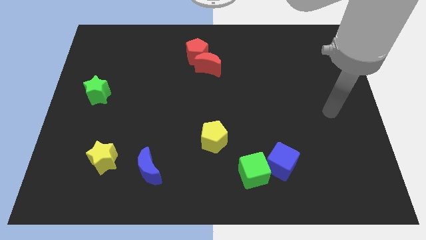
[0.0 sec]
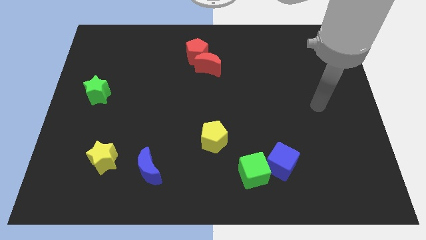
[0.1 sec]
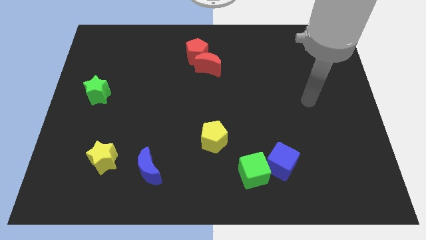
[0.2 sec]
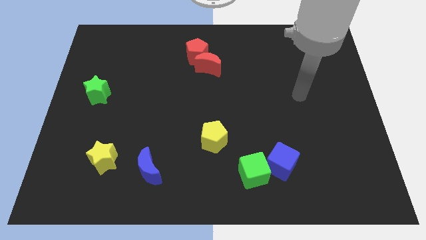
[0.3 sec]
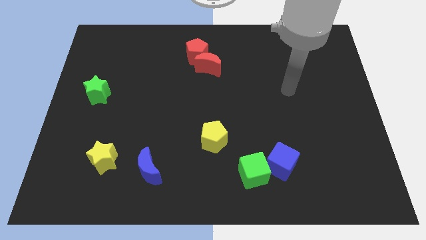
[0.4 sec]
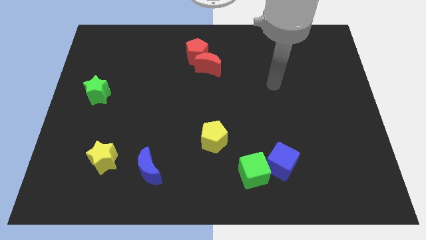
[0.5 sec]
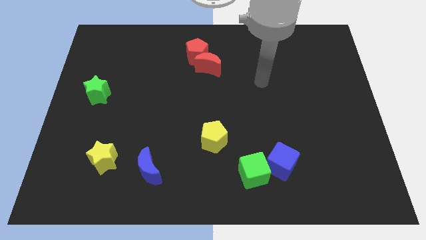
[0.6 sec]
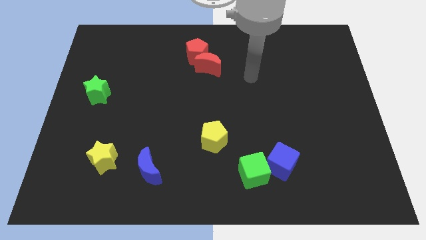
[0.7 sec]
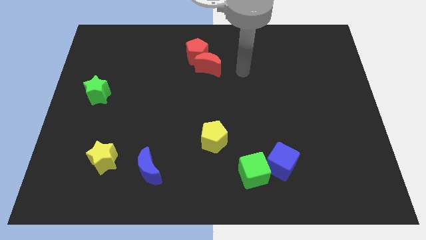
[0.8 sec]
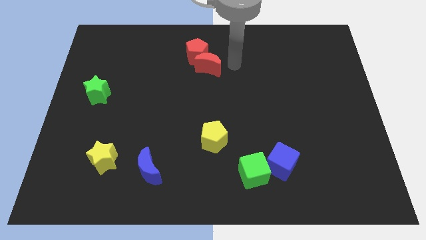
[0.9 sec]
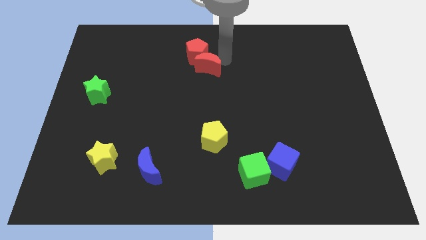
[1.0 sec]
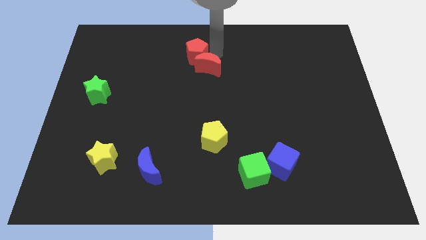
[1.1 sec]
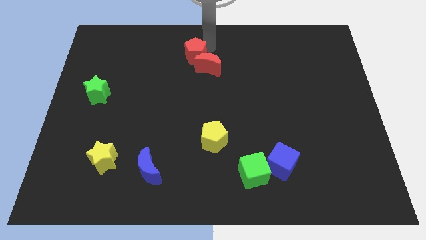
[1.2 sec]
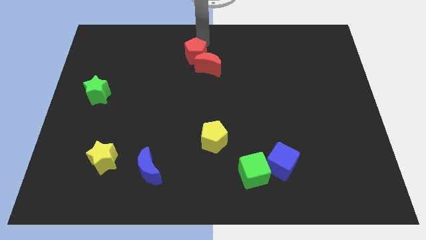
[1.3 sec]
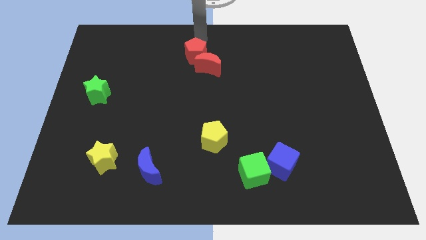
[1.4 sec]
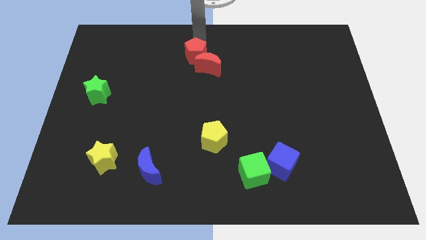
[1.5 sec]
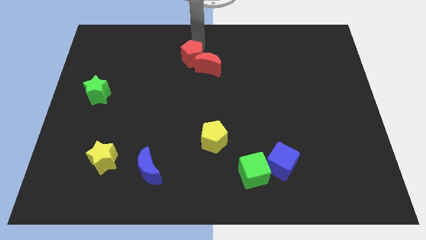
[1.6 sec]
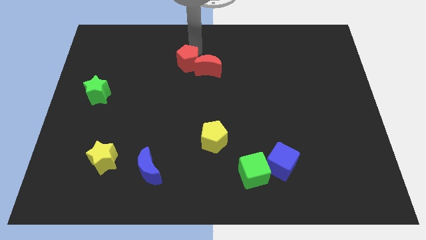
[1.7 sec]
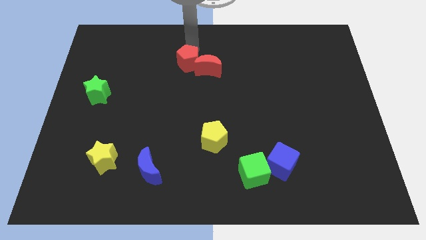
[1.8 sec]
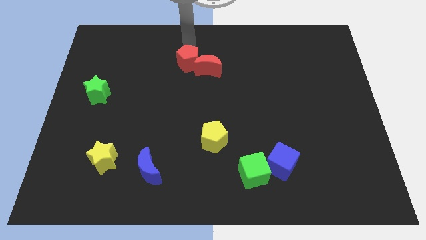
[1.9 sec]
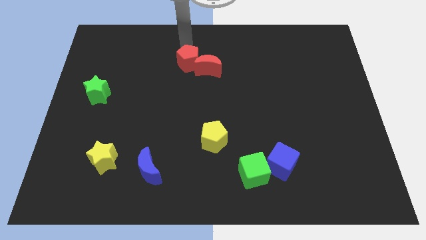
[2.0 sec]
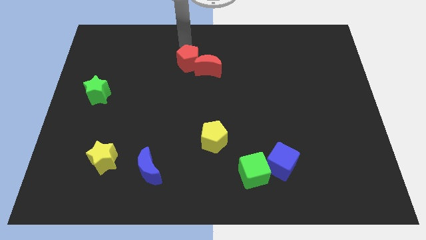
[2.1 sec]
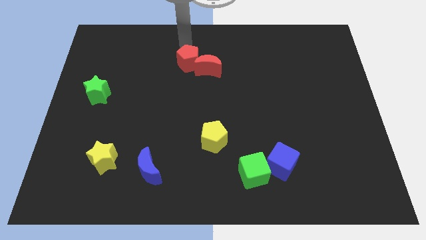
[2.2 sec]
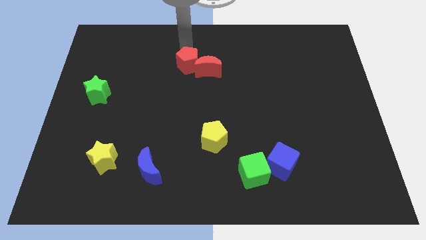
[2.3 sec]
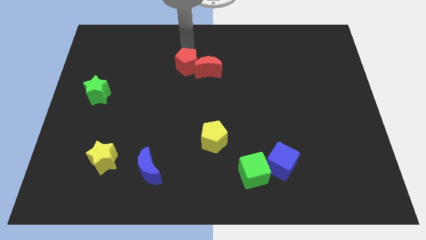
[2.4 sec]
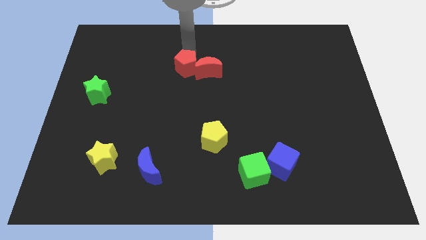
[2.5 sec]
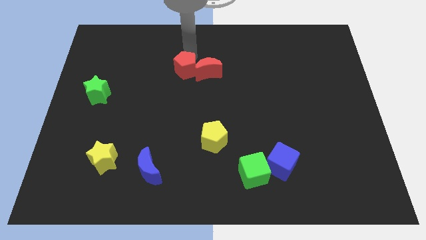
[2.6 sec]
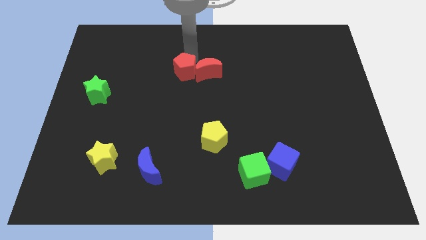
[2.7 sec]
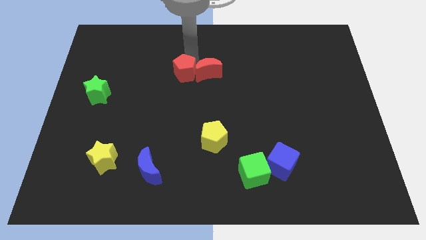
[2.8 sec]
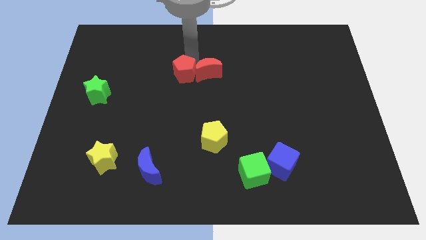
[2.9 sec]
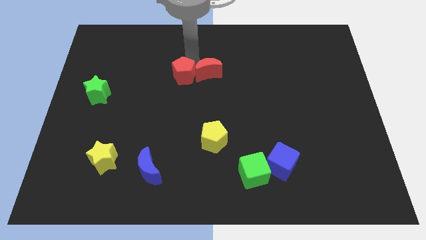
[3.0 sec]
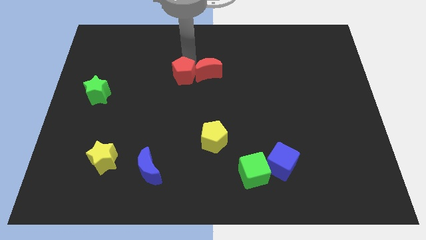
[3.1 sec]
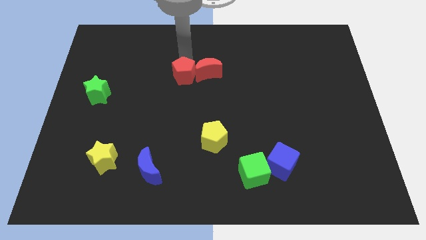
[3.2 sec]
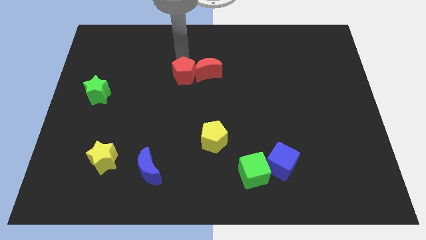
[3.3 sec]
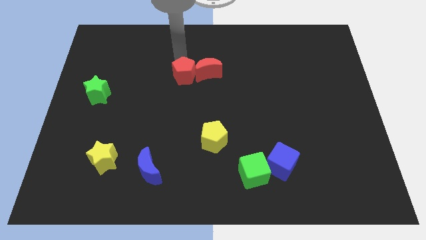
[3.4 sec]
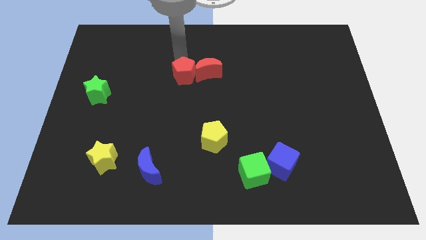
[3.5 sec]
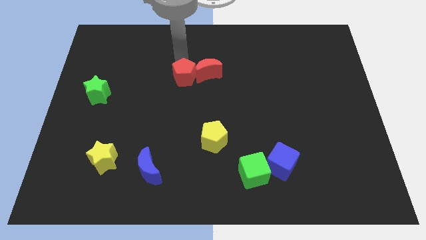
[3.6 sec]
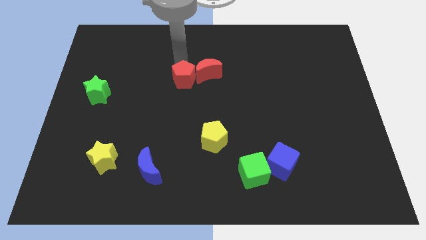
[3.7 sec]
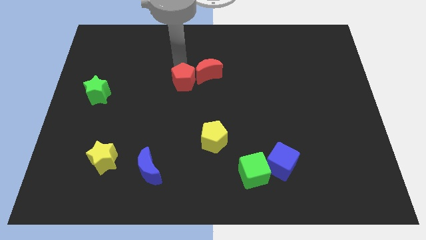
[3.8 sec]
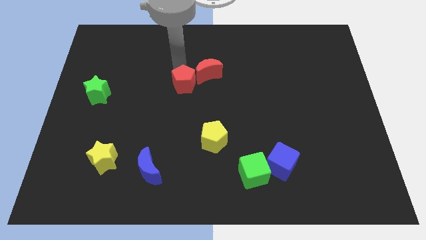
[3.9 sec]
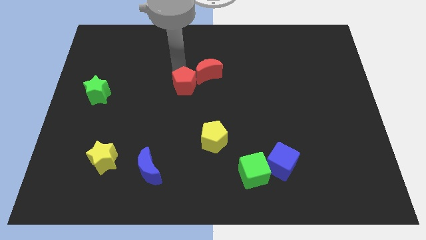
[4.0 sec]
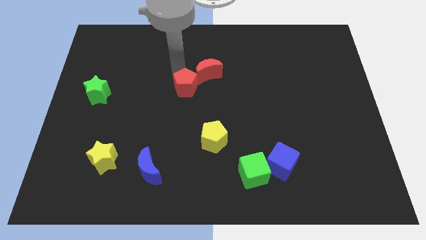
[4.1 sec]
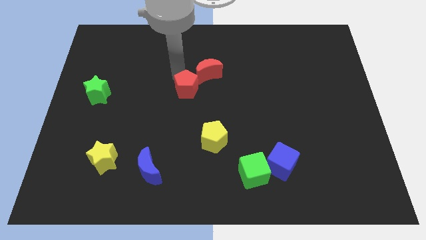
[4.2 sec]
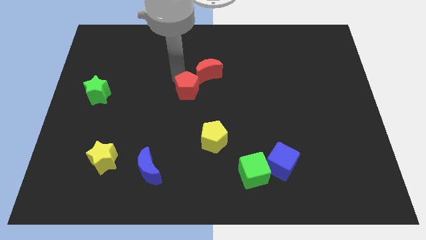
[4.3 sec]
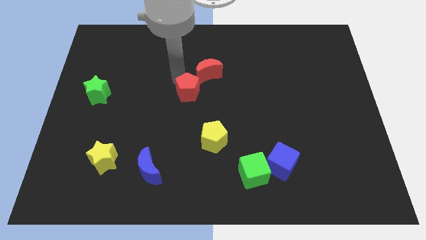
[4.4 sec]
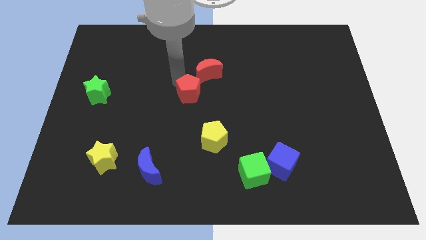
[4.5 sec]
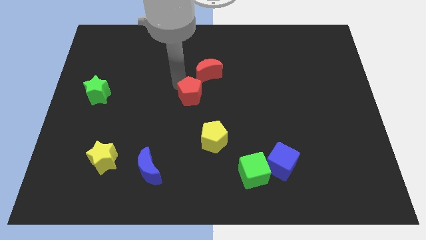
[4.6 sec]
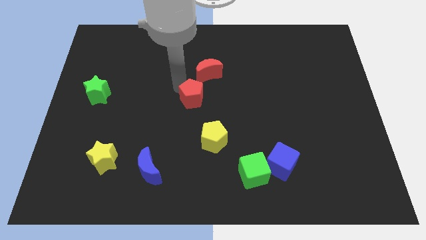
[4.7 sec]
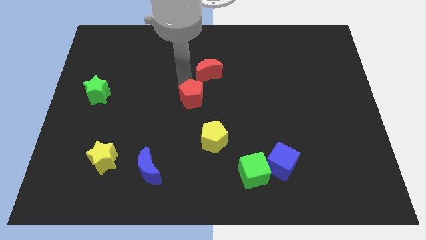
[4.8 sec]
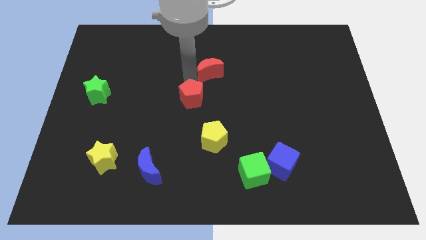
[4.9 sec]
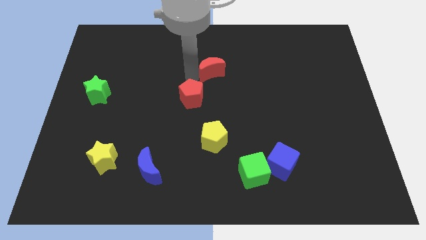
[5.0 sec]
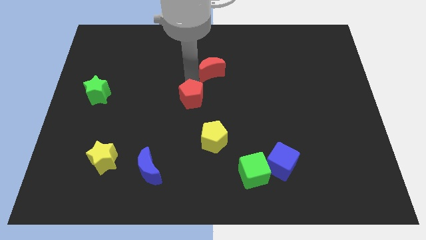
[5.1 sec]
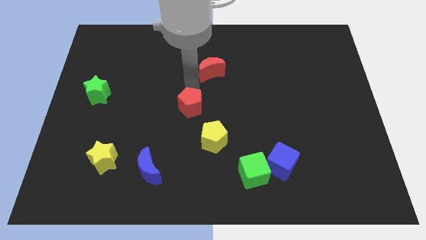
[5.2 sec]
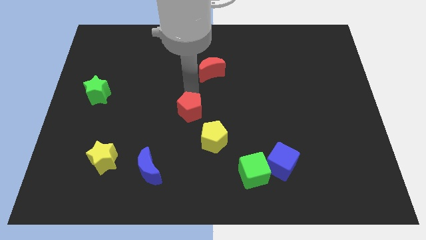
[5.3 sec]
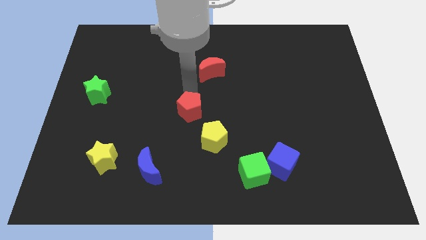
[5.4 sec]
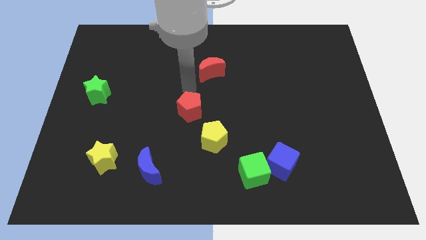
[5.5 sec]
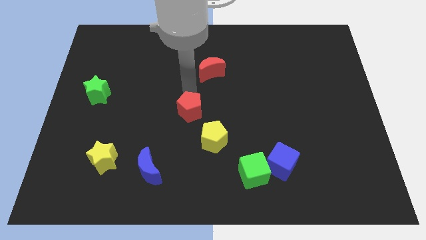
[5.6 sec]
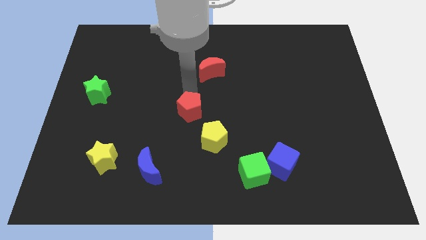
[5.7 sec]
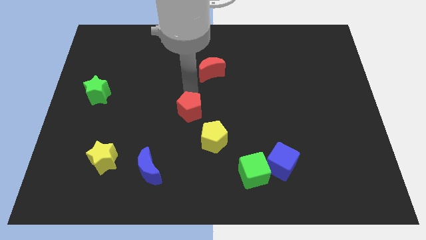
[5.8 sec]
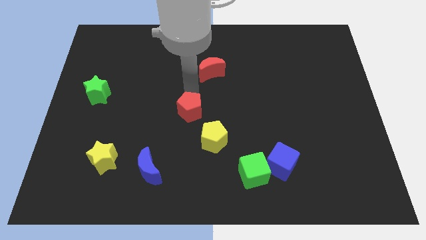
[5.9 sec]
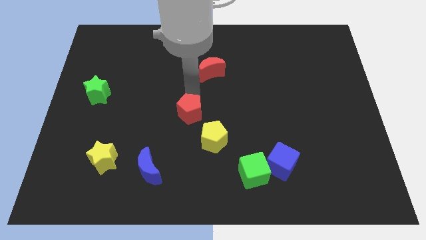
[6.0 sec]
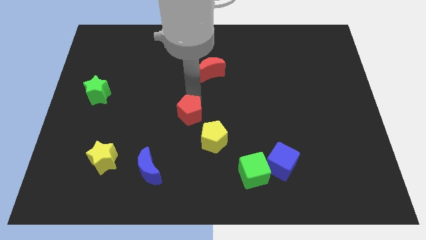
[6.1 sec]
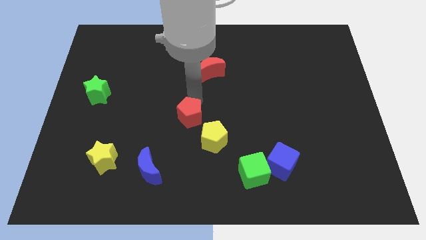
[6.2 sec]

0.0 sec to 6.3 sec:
push the red pentagon downwards

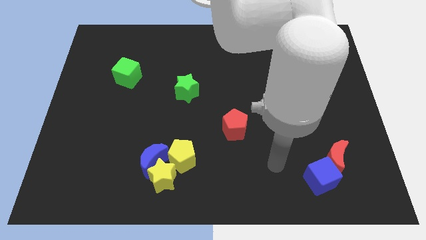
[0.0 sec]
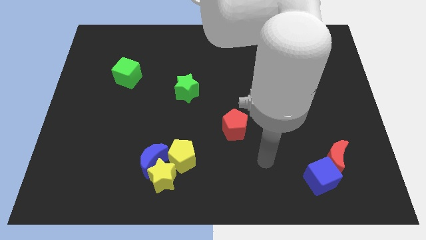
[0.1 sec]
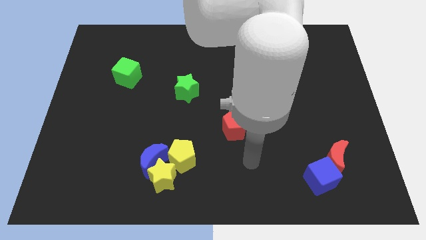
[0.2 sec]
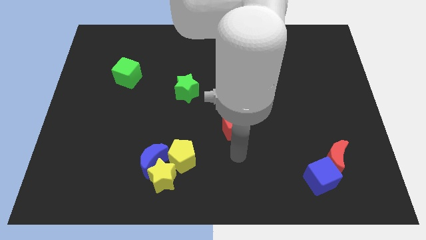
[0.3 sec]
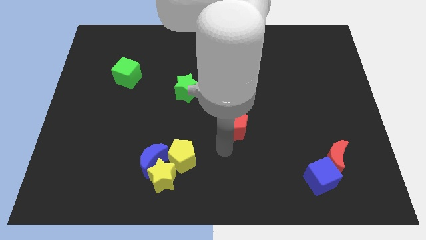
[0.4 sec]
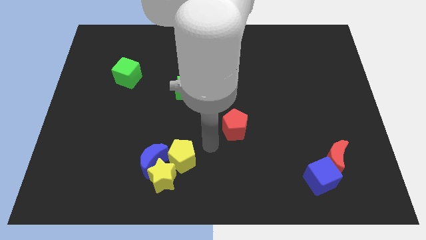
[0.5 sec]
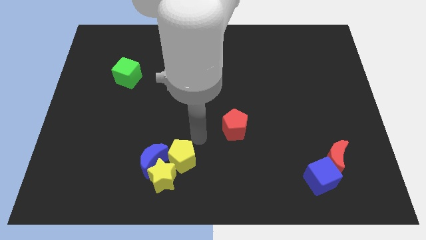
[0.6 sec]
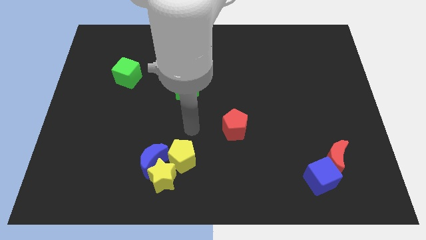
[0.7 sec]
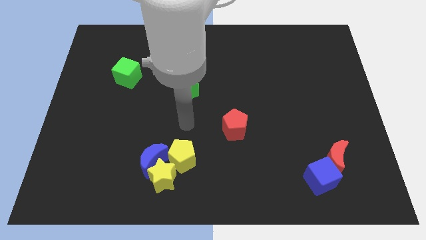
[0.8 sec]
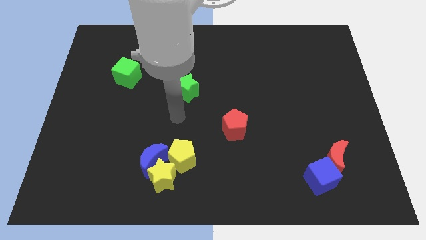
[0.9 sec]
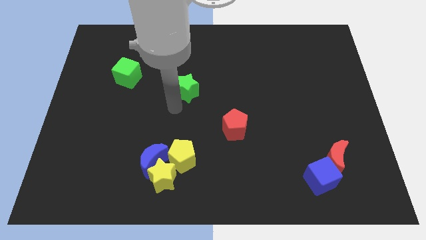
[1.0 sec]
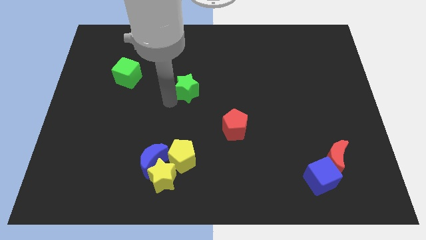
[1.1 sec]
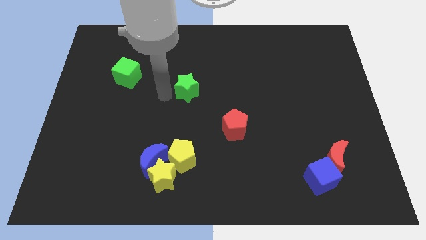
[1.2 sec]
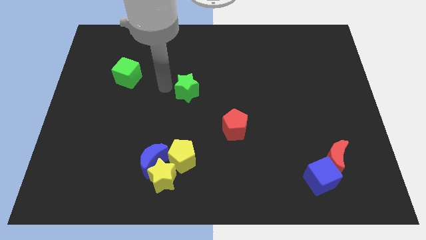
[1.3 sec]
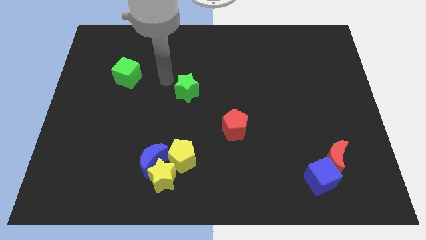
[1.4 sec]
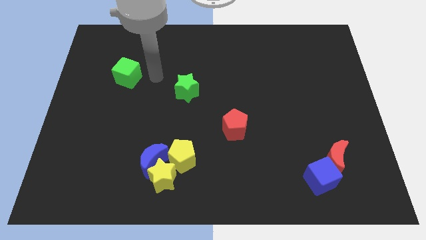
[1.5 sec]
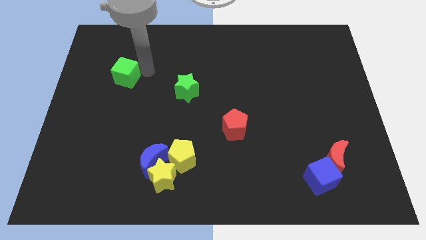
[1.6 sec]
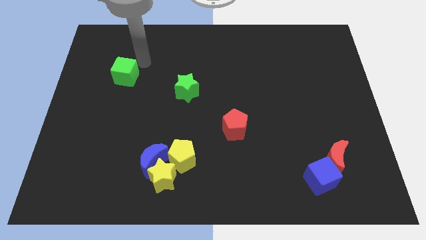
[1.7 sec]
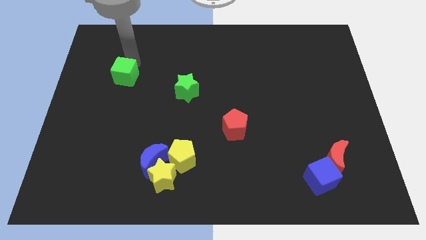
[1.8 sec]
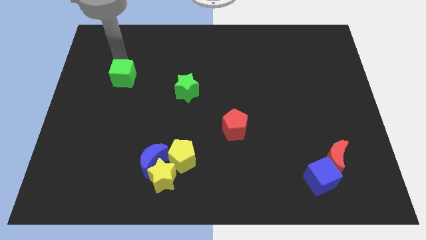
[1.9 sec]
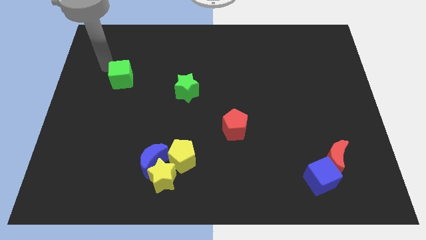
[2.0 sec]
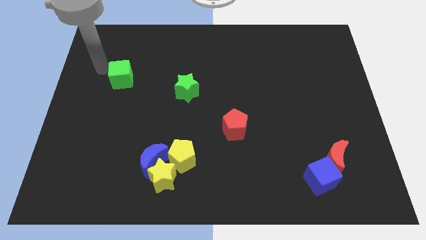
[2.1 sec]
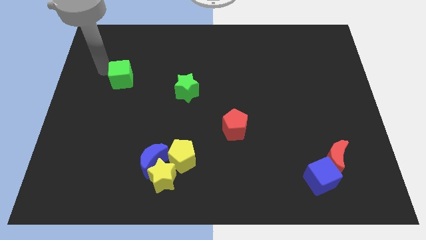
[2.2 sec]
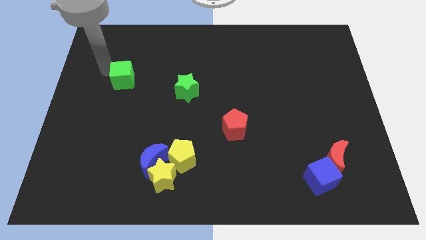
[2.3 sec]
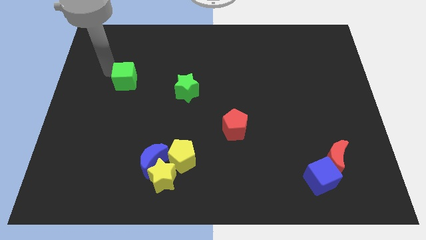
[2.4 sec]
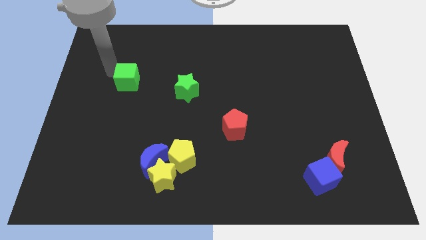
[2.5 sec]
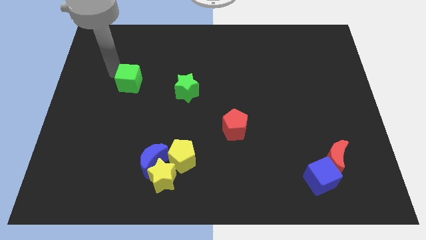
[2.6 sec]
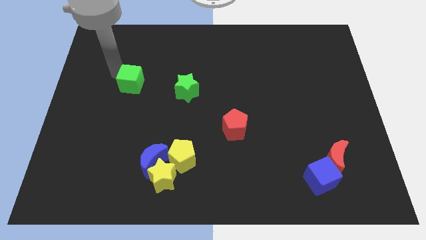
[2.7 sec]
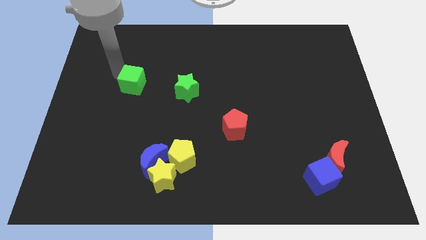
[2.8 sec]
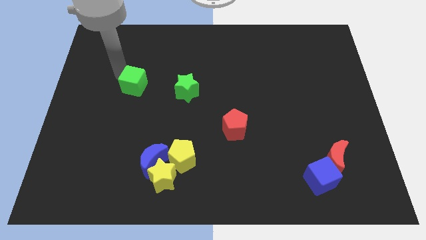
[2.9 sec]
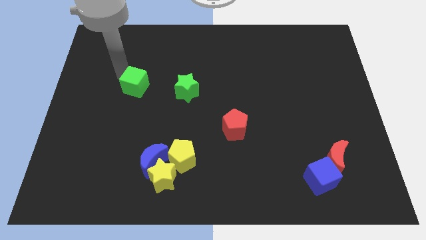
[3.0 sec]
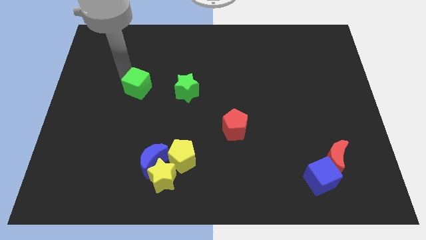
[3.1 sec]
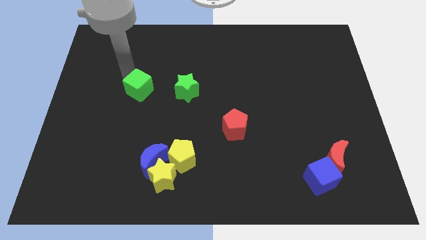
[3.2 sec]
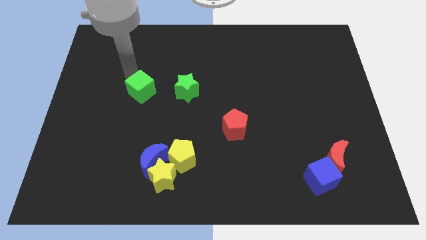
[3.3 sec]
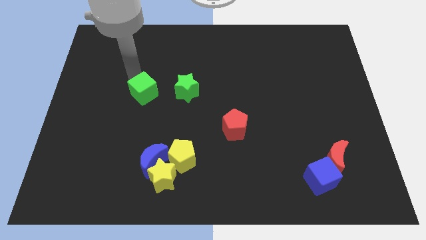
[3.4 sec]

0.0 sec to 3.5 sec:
slide the green cube a little downwards and right
